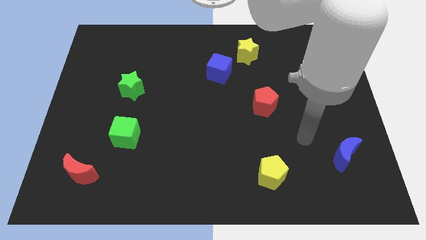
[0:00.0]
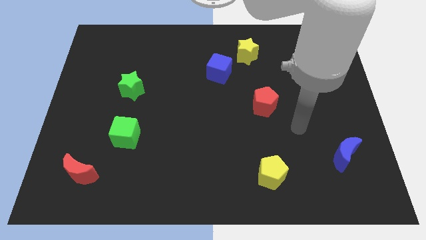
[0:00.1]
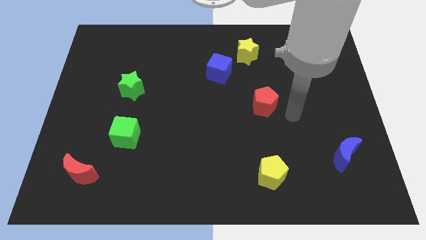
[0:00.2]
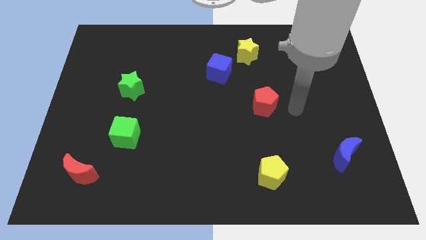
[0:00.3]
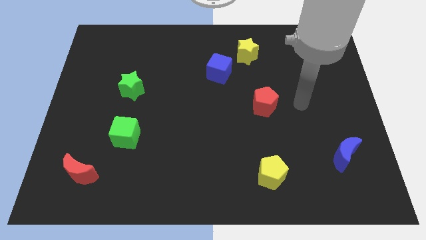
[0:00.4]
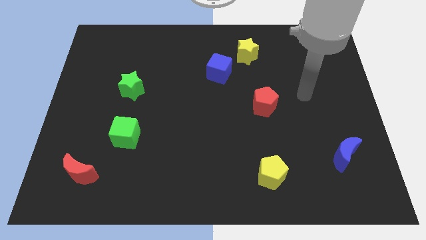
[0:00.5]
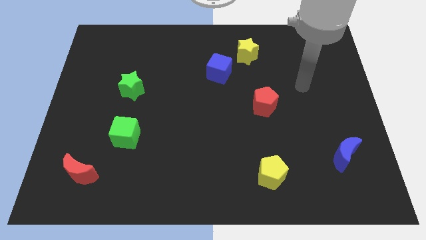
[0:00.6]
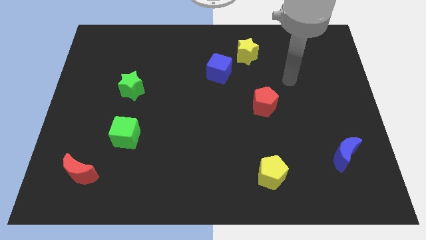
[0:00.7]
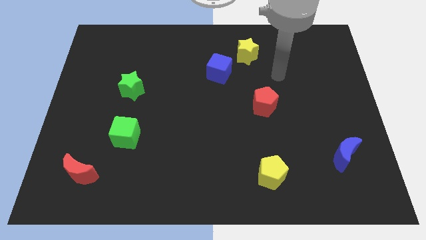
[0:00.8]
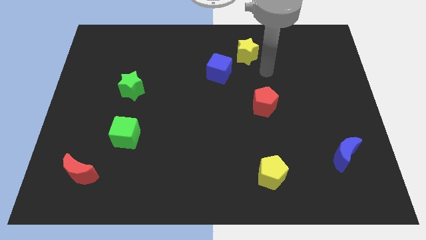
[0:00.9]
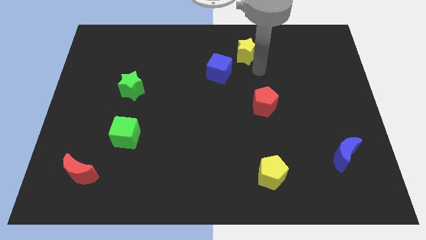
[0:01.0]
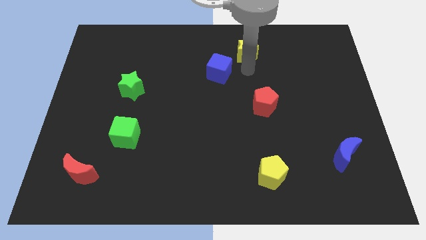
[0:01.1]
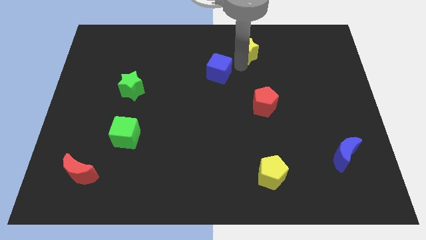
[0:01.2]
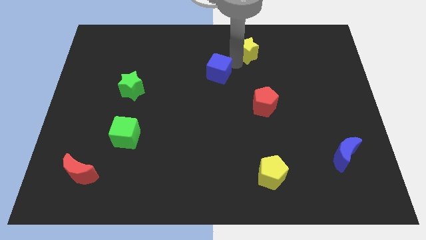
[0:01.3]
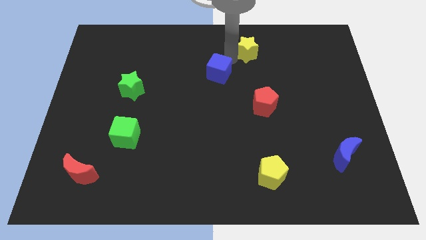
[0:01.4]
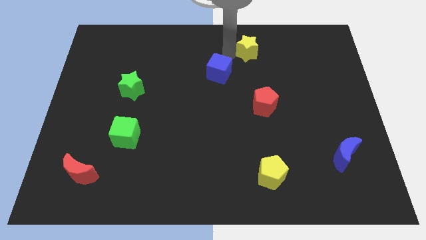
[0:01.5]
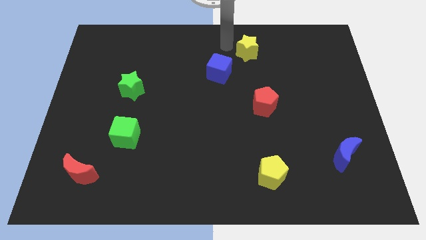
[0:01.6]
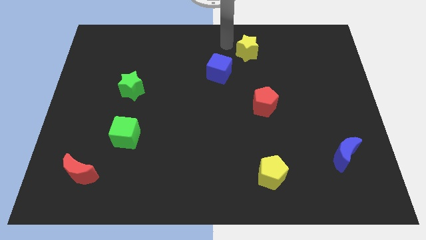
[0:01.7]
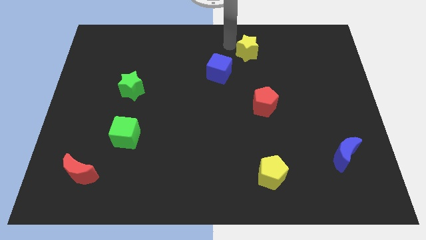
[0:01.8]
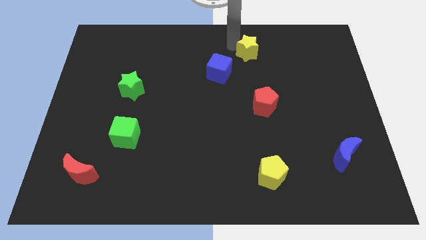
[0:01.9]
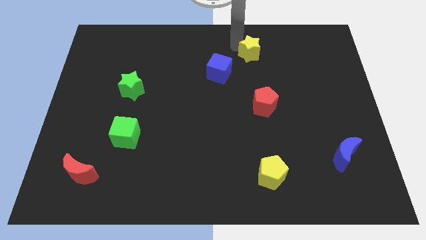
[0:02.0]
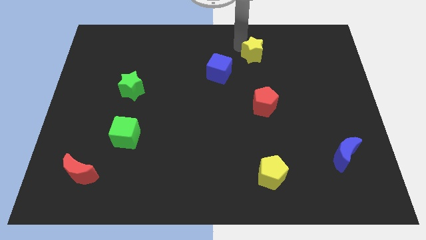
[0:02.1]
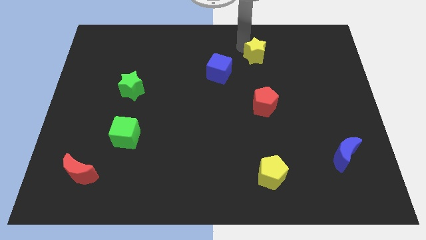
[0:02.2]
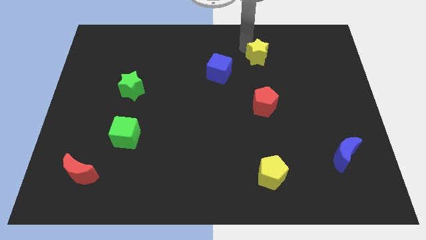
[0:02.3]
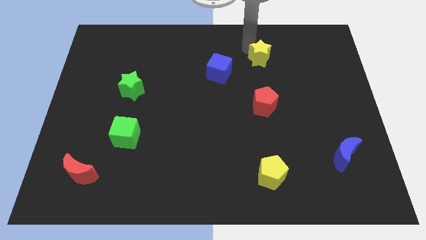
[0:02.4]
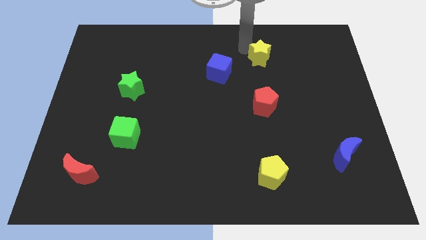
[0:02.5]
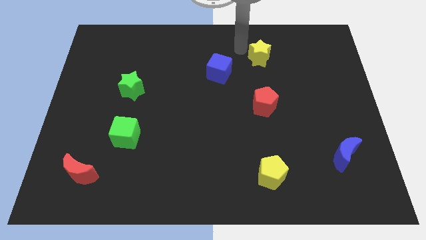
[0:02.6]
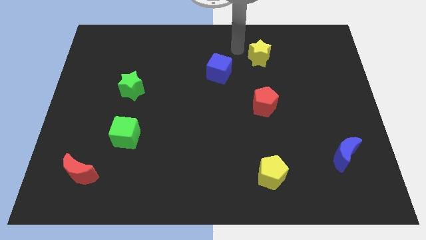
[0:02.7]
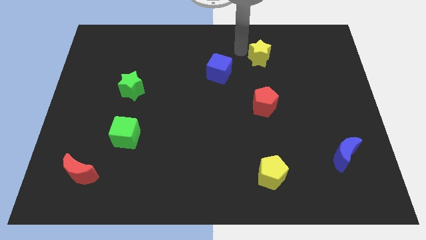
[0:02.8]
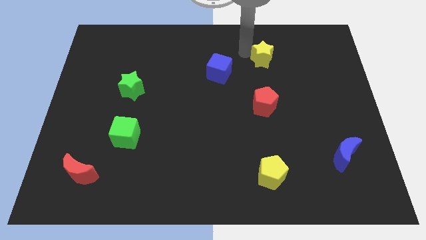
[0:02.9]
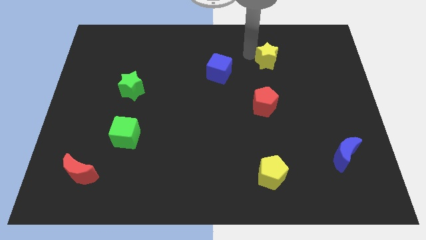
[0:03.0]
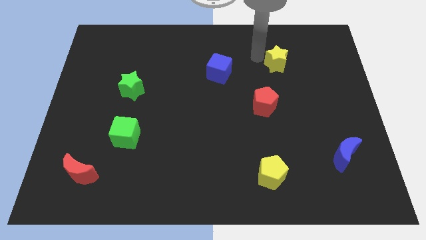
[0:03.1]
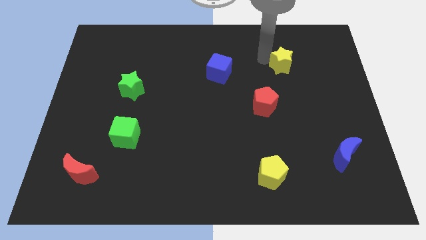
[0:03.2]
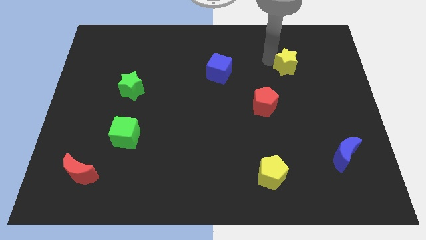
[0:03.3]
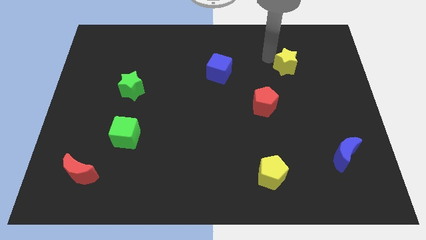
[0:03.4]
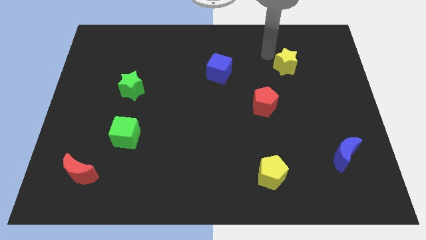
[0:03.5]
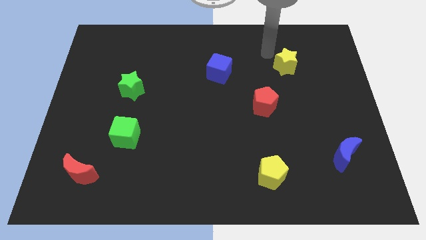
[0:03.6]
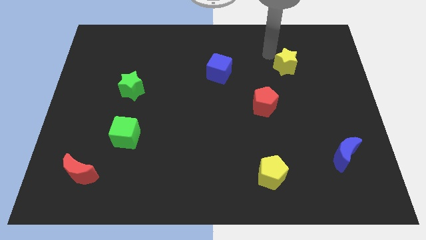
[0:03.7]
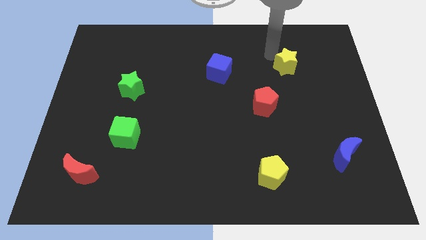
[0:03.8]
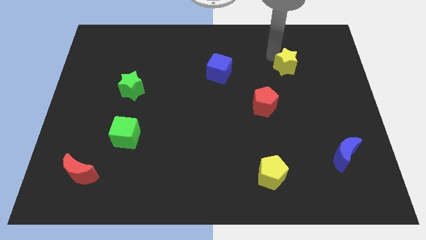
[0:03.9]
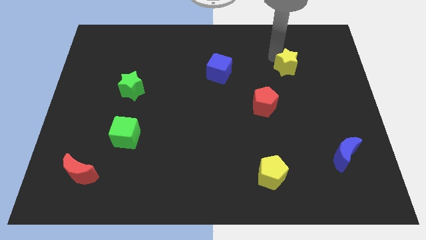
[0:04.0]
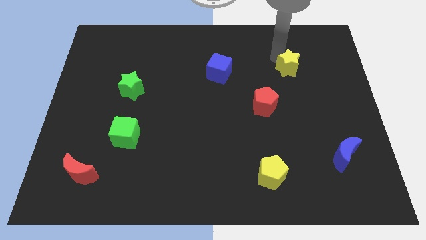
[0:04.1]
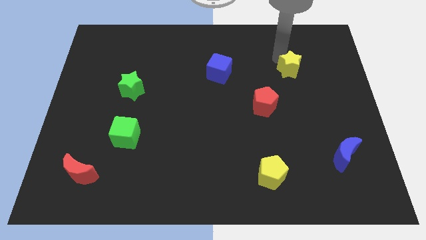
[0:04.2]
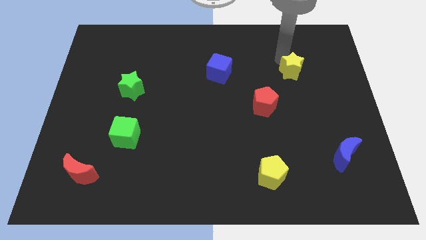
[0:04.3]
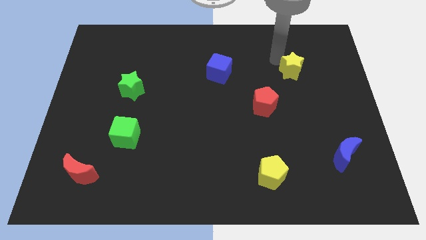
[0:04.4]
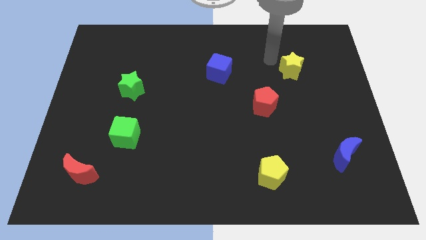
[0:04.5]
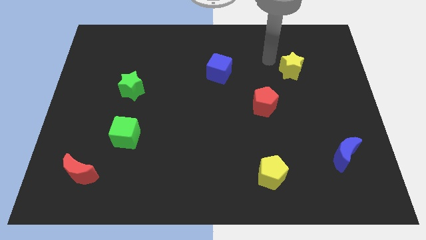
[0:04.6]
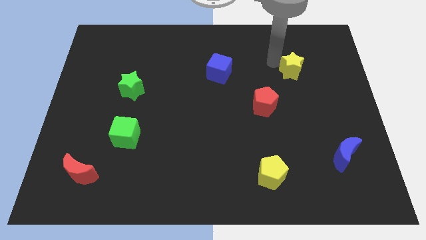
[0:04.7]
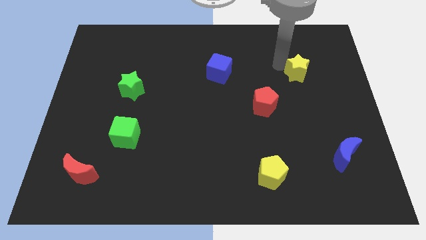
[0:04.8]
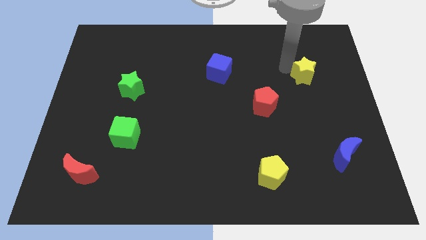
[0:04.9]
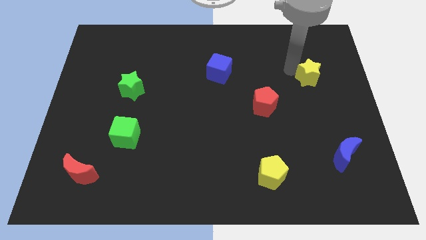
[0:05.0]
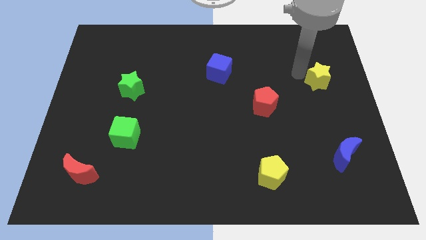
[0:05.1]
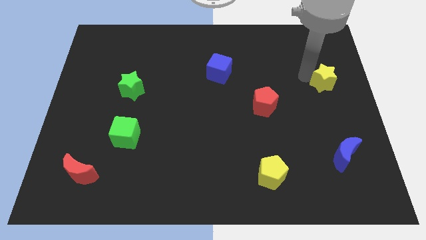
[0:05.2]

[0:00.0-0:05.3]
slide the yellow star to the center right

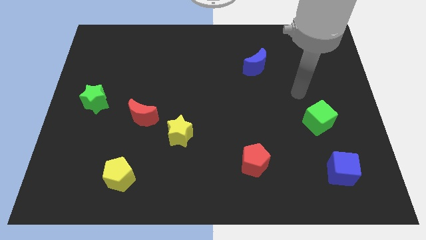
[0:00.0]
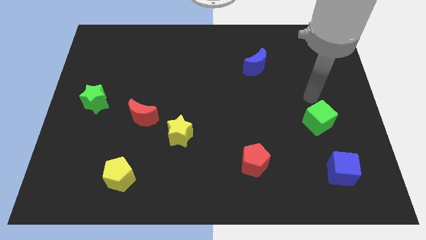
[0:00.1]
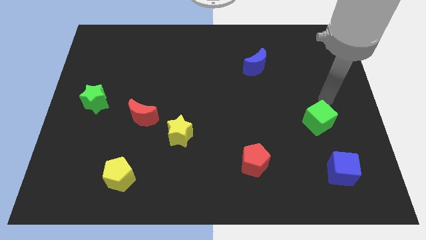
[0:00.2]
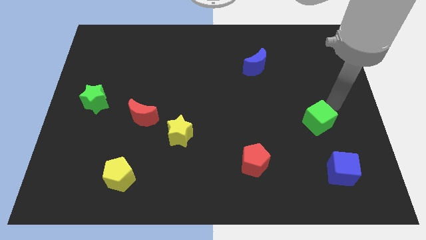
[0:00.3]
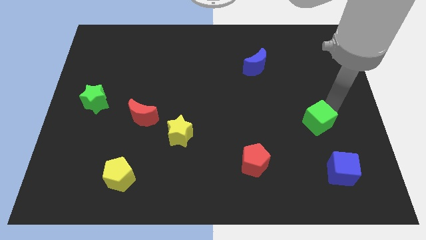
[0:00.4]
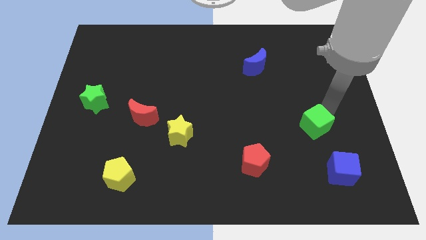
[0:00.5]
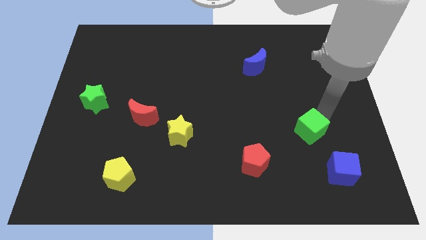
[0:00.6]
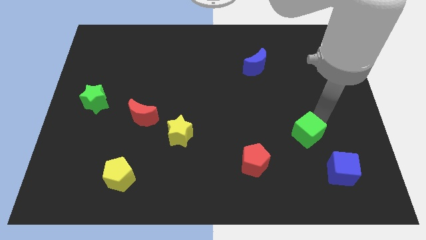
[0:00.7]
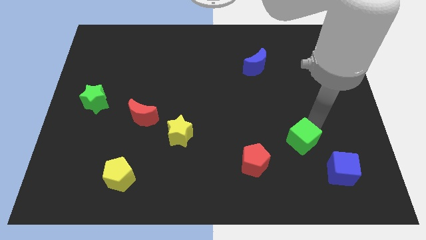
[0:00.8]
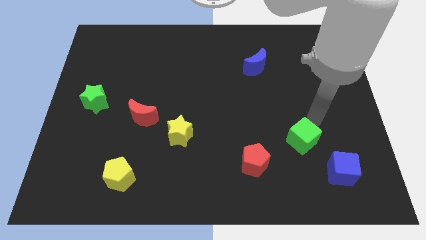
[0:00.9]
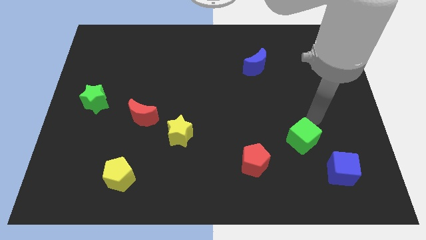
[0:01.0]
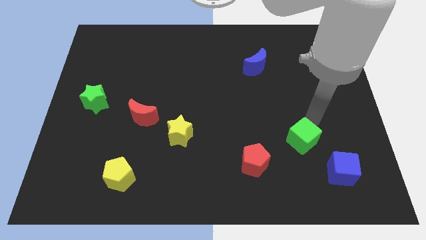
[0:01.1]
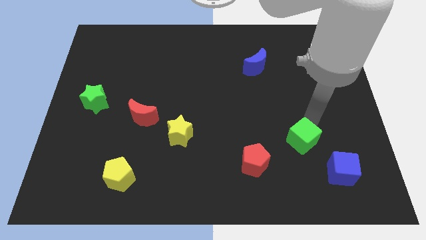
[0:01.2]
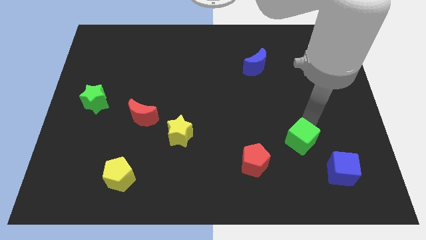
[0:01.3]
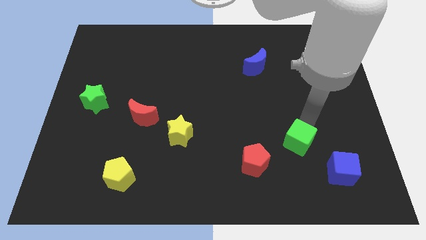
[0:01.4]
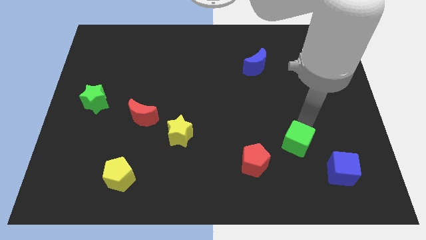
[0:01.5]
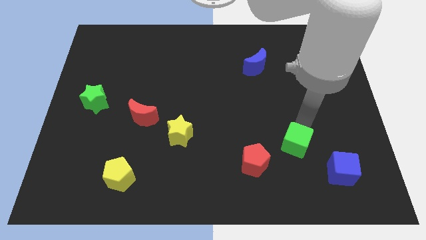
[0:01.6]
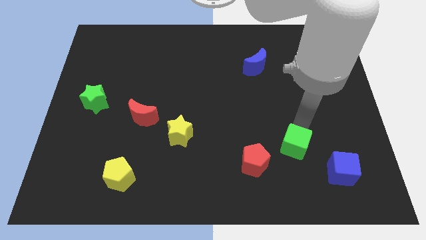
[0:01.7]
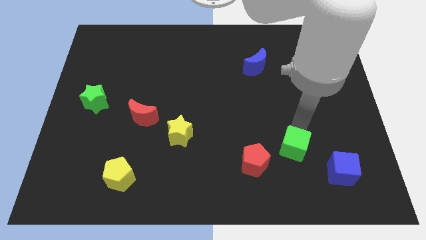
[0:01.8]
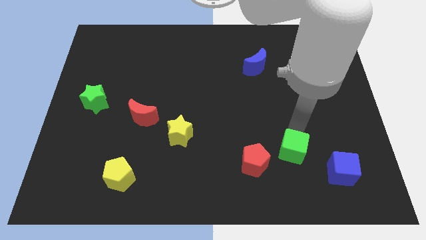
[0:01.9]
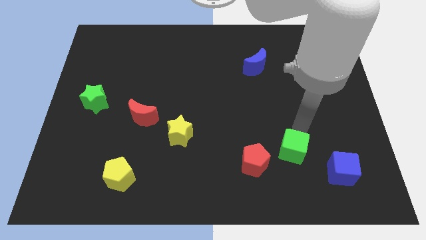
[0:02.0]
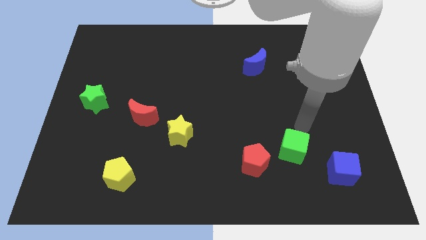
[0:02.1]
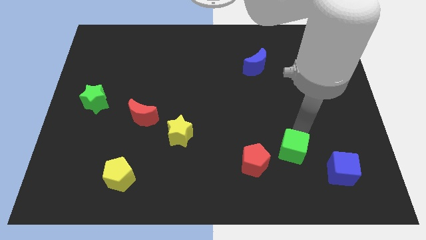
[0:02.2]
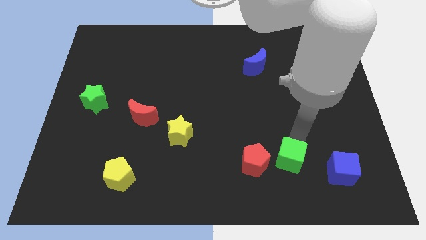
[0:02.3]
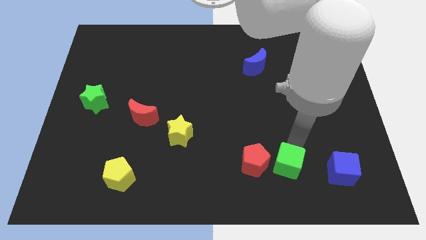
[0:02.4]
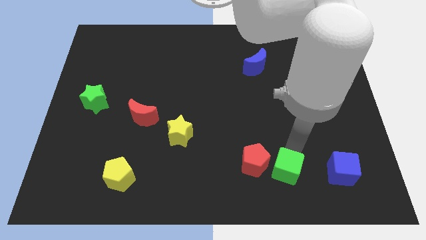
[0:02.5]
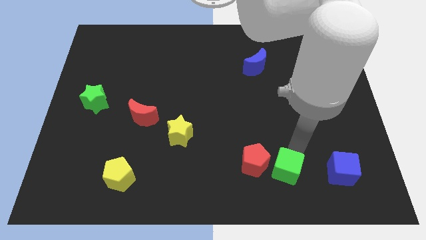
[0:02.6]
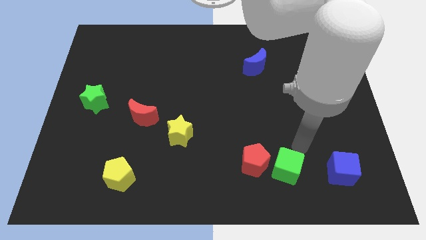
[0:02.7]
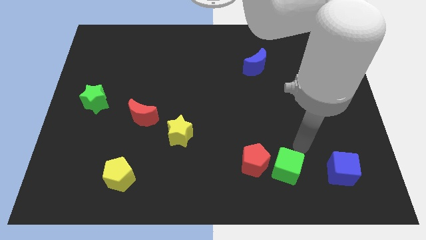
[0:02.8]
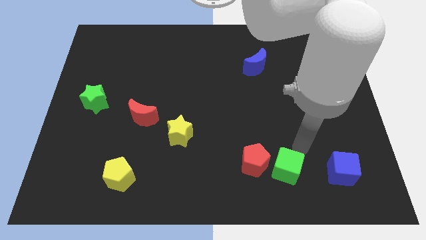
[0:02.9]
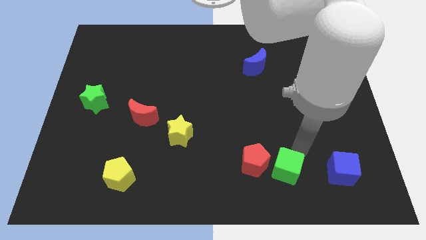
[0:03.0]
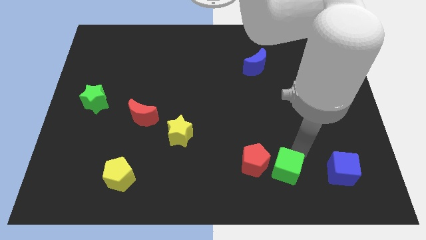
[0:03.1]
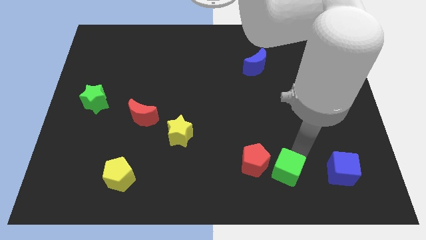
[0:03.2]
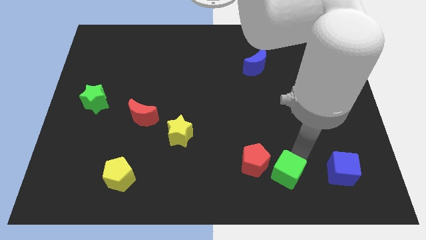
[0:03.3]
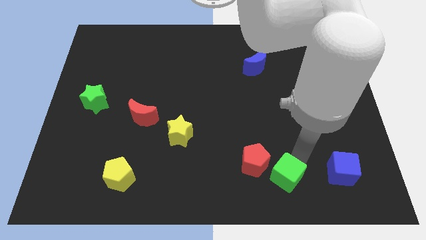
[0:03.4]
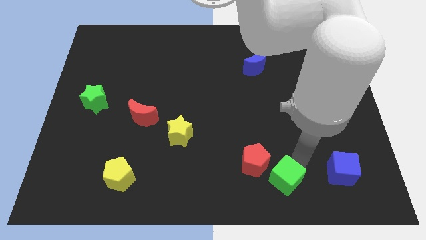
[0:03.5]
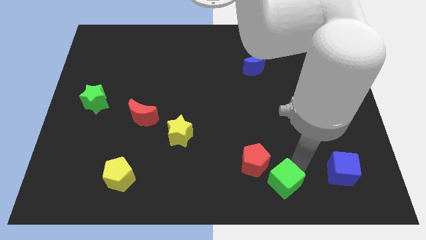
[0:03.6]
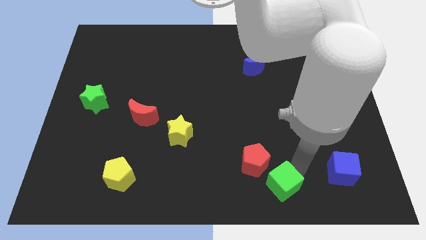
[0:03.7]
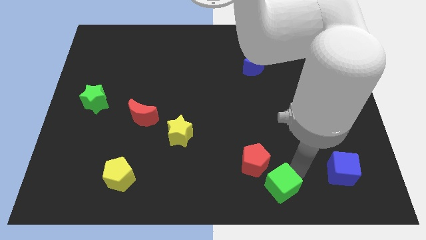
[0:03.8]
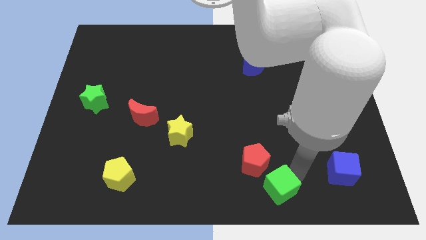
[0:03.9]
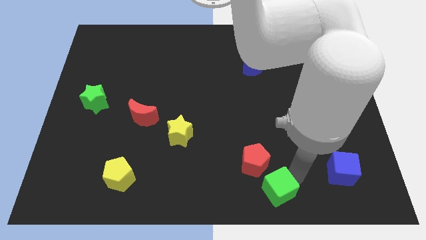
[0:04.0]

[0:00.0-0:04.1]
move the green cube to the bottom side
